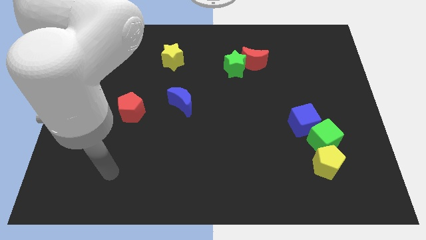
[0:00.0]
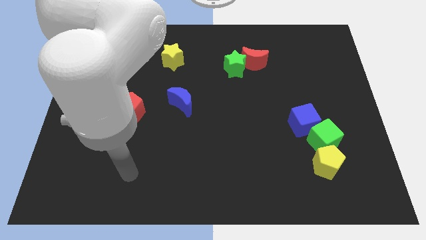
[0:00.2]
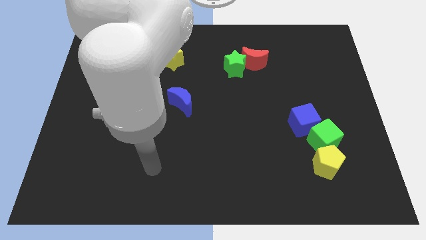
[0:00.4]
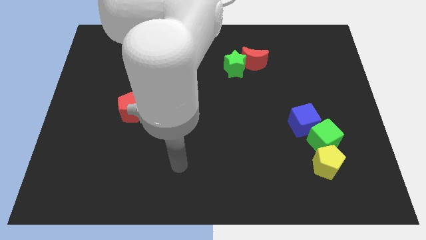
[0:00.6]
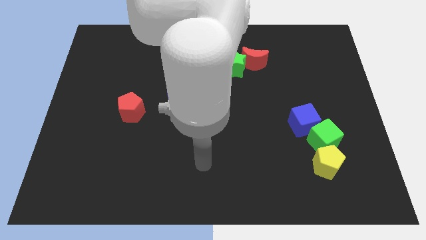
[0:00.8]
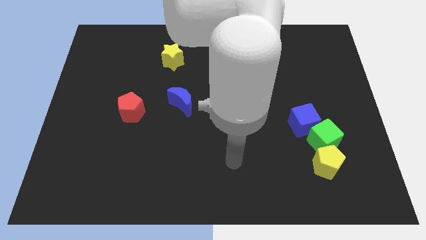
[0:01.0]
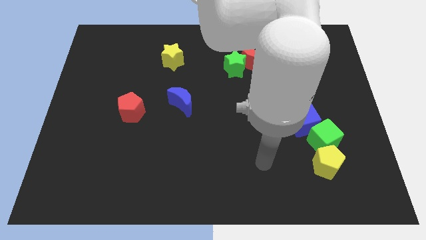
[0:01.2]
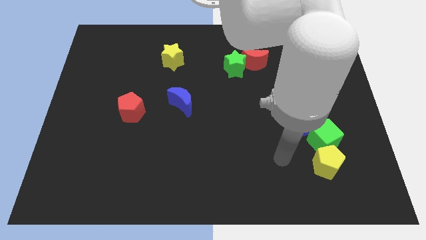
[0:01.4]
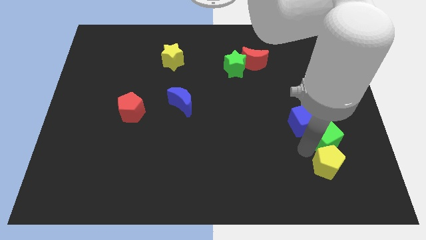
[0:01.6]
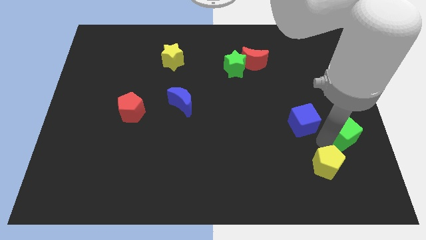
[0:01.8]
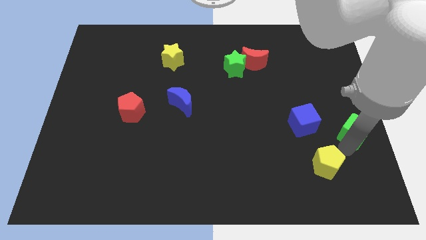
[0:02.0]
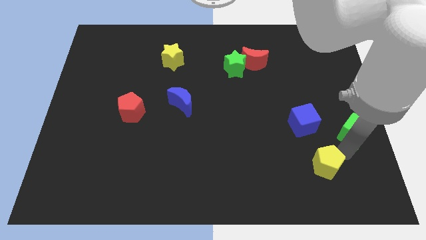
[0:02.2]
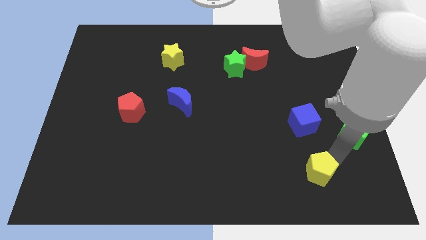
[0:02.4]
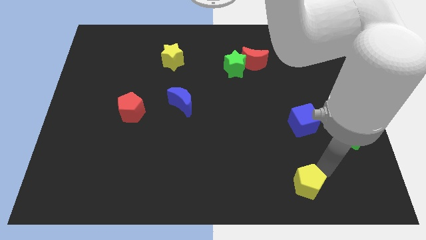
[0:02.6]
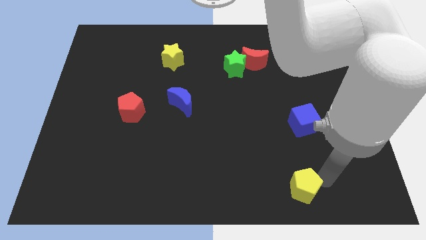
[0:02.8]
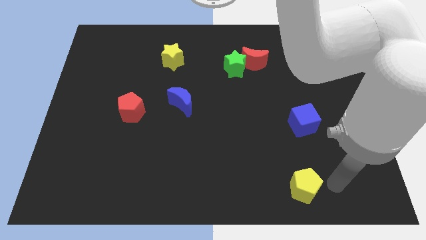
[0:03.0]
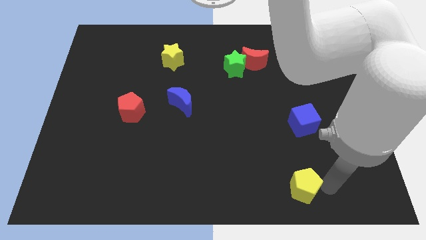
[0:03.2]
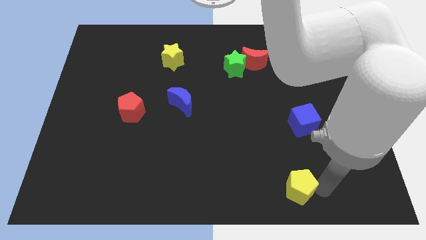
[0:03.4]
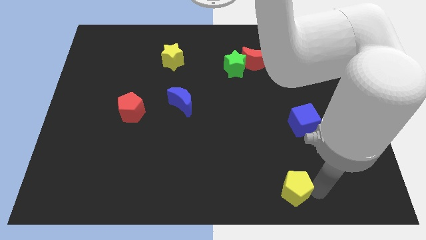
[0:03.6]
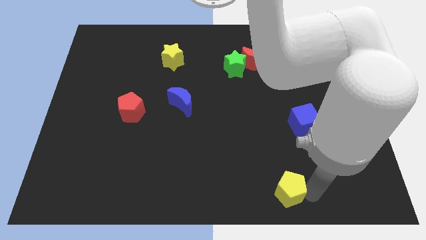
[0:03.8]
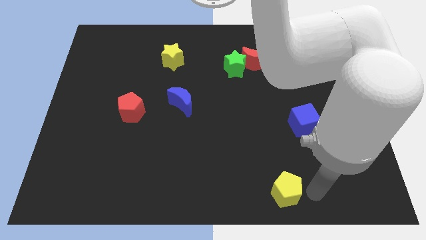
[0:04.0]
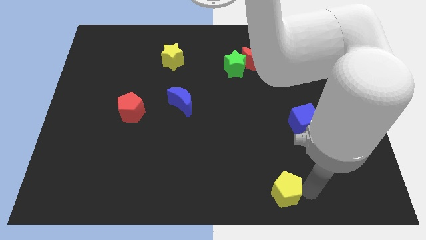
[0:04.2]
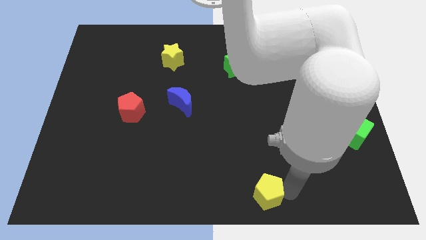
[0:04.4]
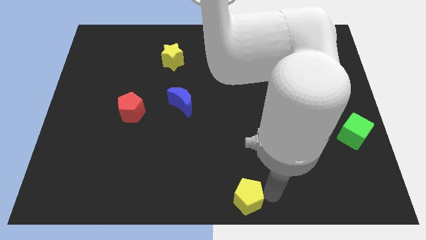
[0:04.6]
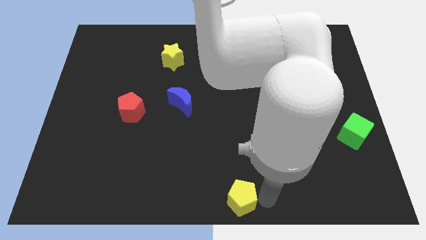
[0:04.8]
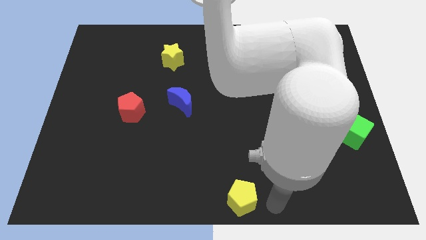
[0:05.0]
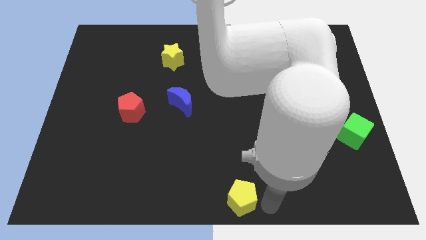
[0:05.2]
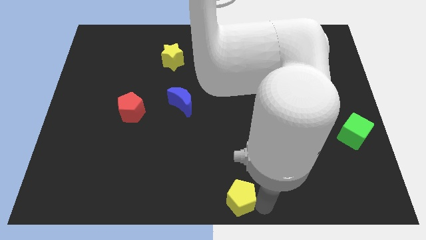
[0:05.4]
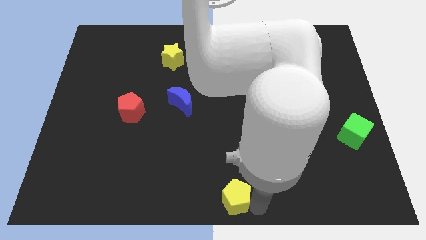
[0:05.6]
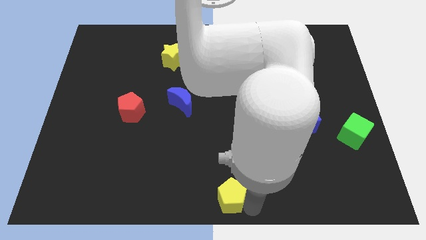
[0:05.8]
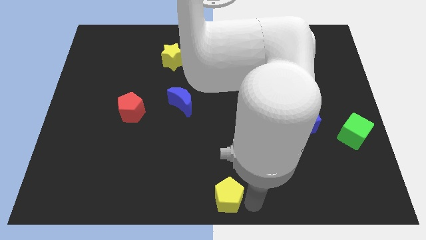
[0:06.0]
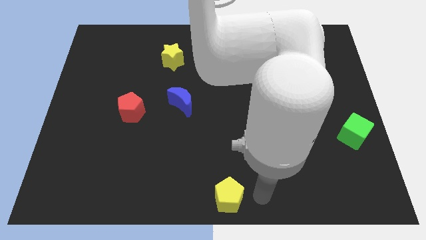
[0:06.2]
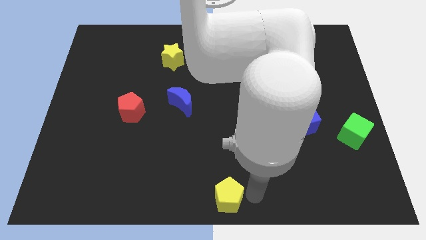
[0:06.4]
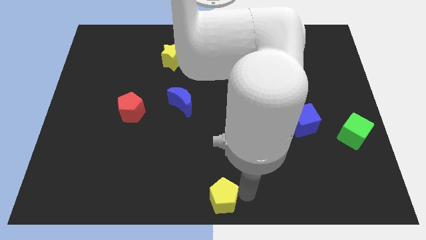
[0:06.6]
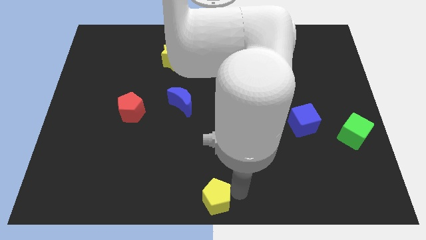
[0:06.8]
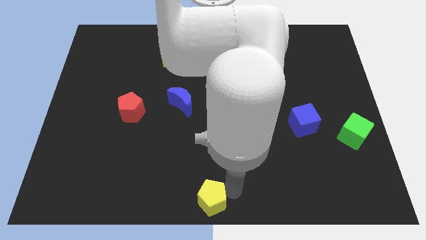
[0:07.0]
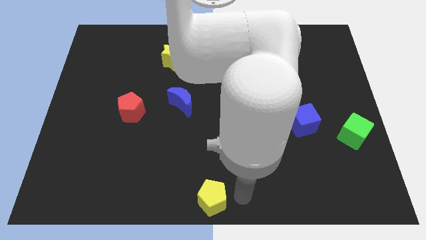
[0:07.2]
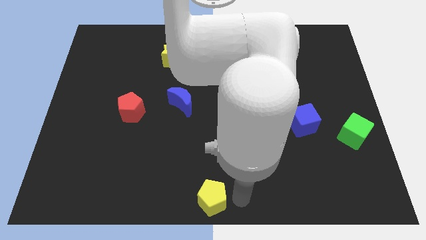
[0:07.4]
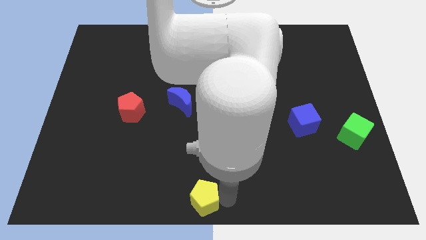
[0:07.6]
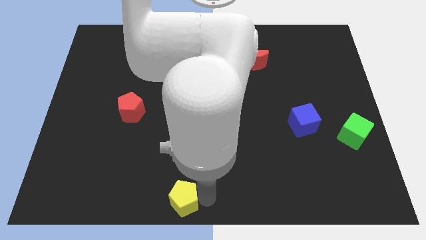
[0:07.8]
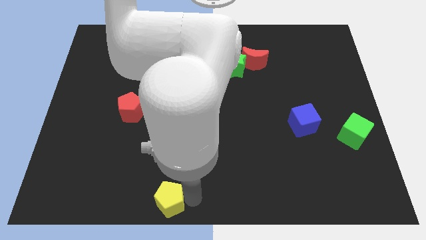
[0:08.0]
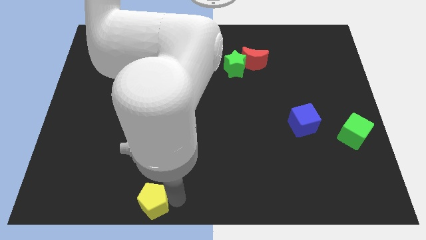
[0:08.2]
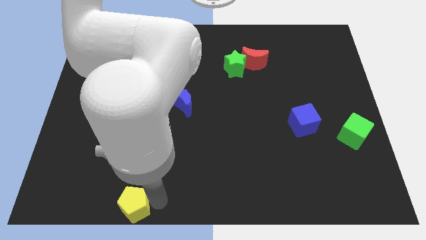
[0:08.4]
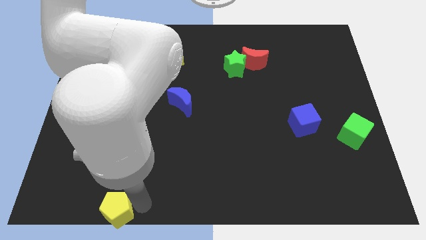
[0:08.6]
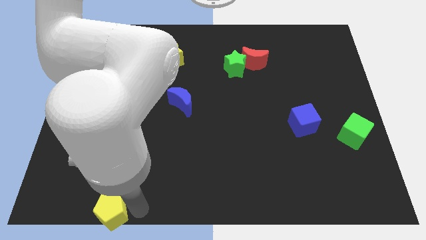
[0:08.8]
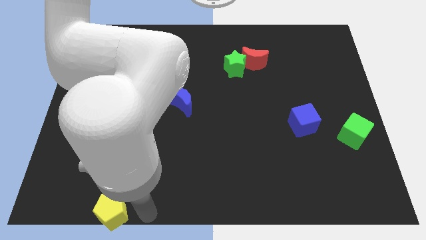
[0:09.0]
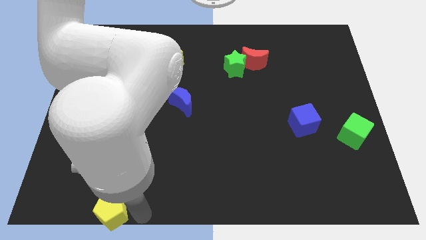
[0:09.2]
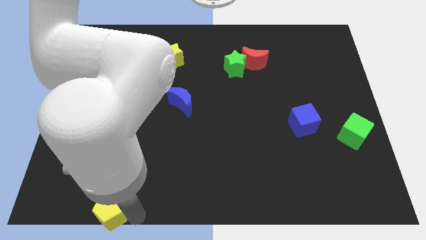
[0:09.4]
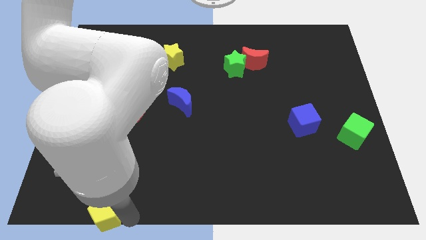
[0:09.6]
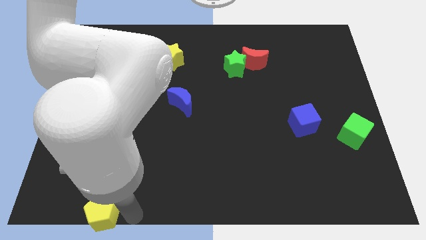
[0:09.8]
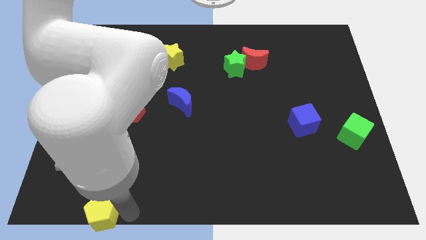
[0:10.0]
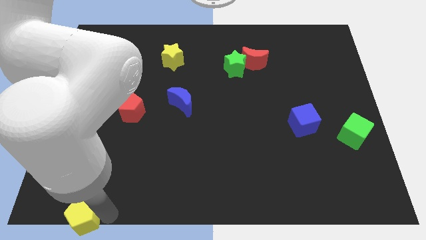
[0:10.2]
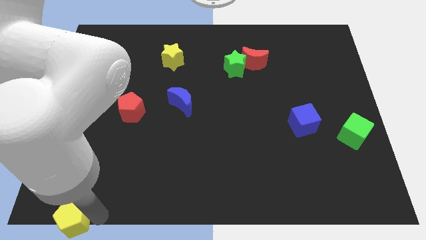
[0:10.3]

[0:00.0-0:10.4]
move the yellow pentagon to the bottom left

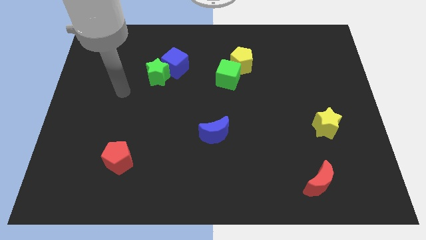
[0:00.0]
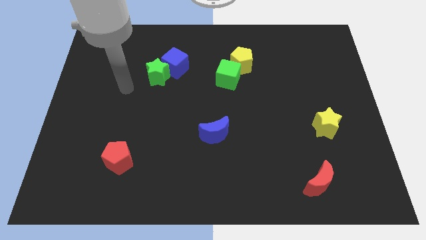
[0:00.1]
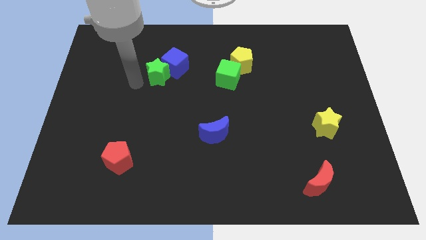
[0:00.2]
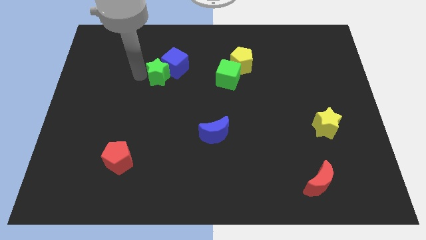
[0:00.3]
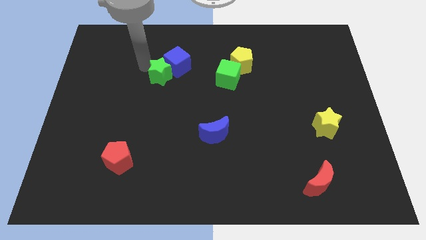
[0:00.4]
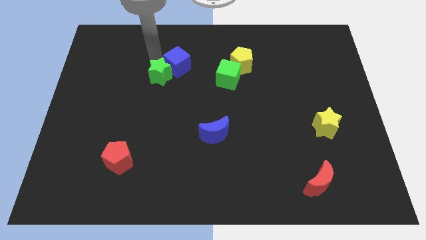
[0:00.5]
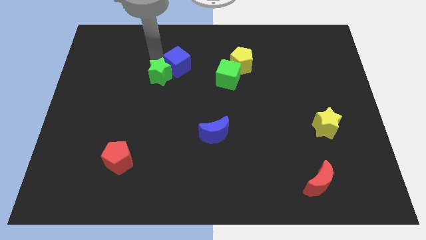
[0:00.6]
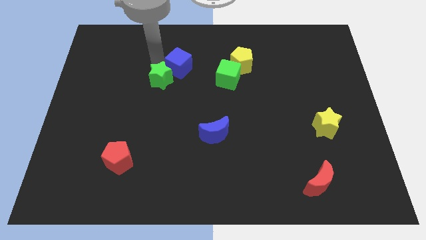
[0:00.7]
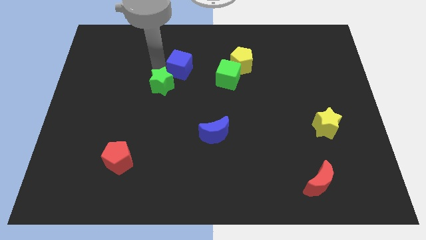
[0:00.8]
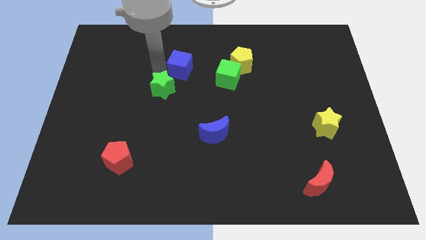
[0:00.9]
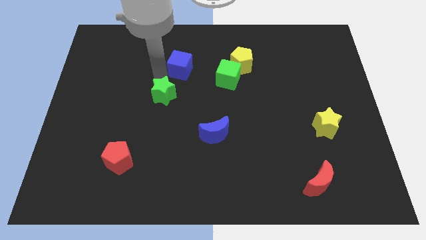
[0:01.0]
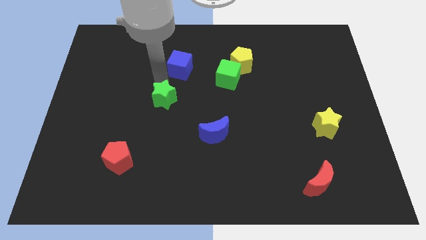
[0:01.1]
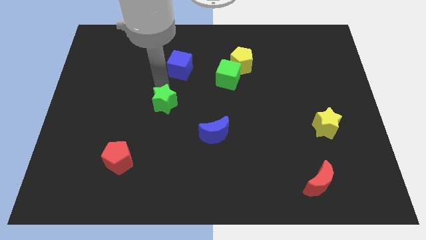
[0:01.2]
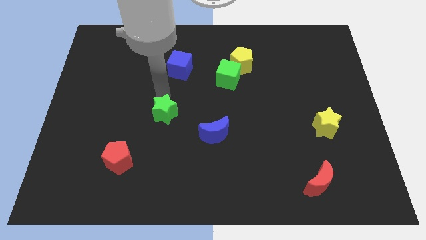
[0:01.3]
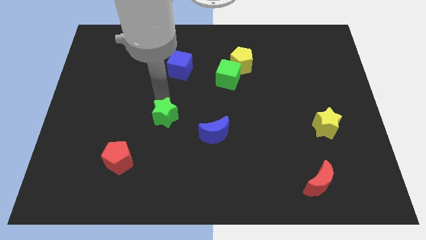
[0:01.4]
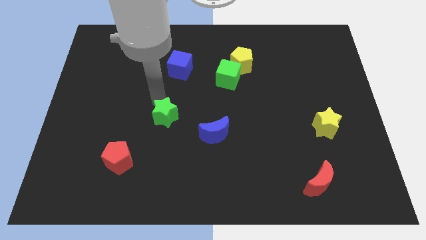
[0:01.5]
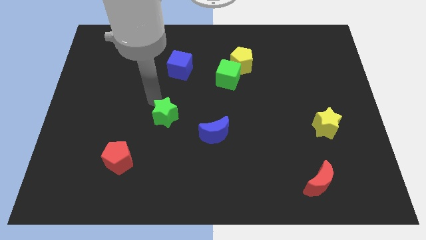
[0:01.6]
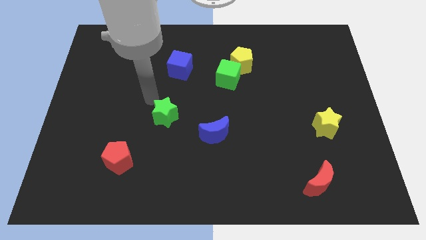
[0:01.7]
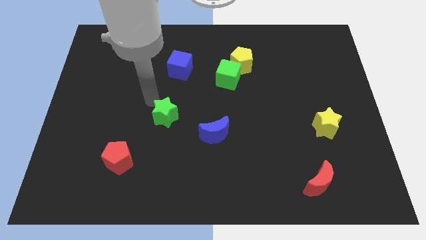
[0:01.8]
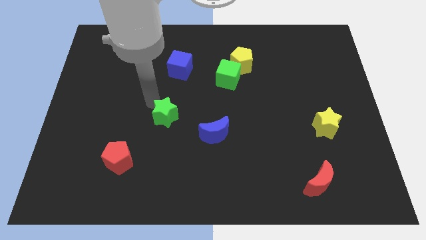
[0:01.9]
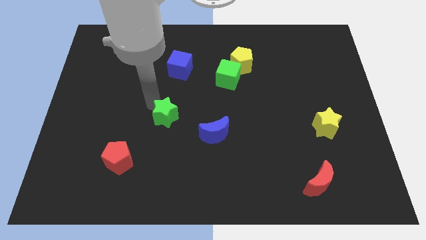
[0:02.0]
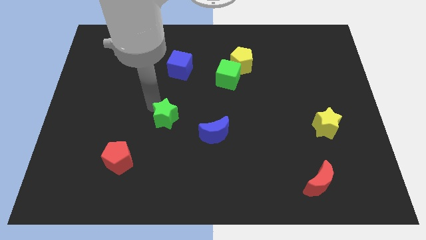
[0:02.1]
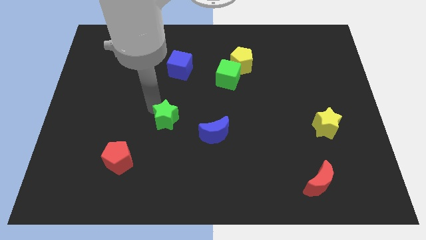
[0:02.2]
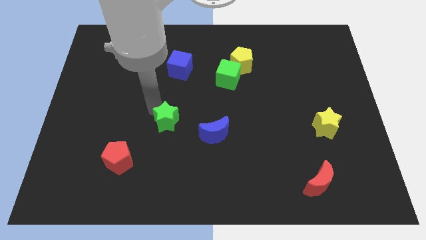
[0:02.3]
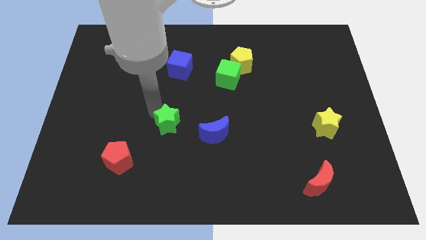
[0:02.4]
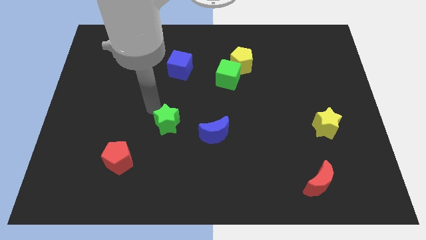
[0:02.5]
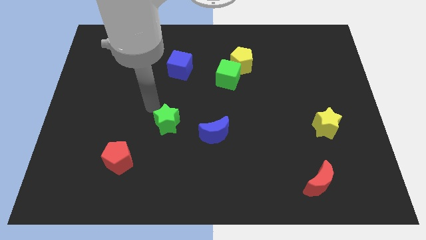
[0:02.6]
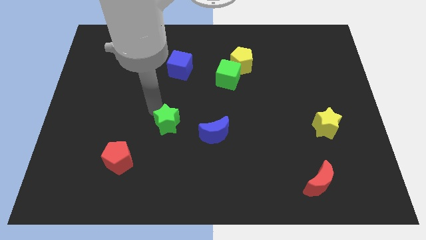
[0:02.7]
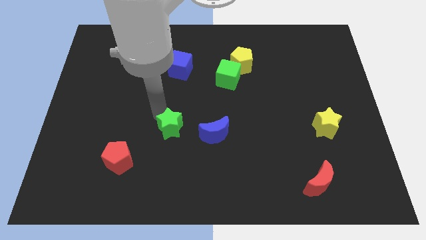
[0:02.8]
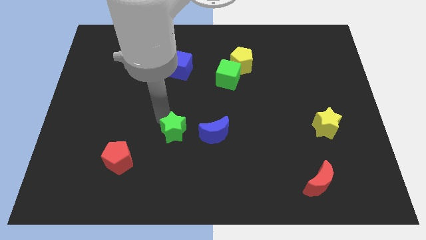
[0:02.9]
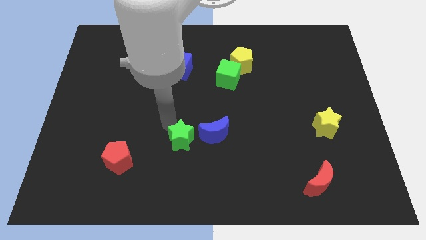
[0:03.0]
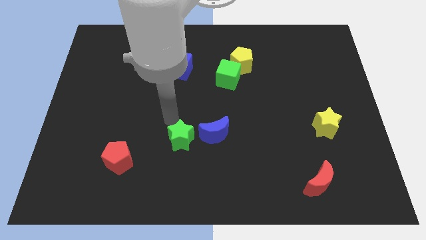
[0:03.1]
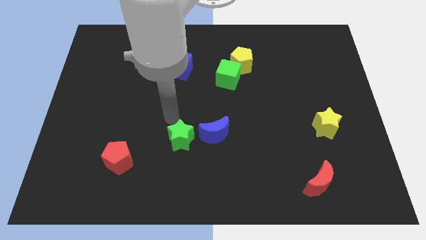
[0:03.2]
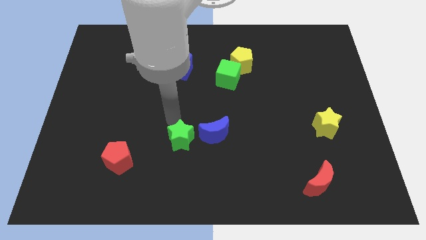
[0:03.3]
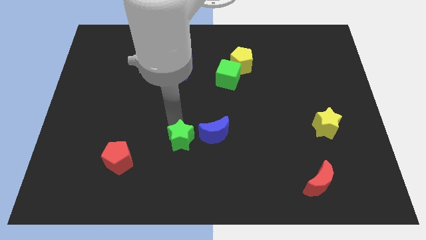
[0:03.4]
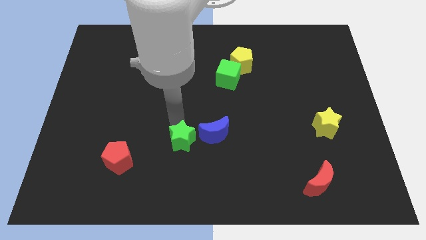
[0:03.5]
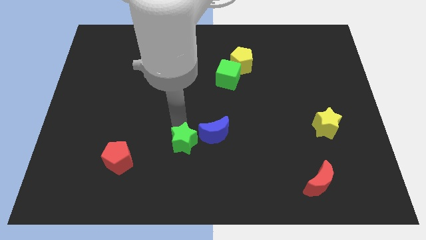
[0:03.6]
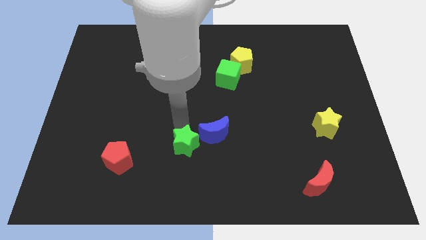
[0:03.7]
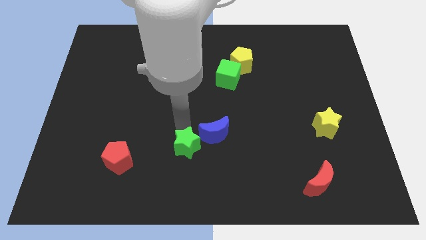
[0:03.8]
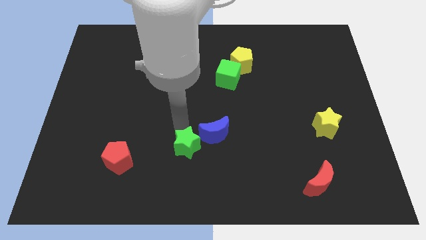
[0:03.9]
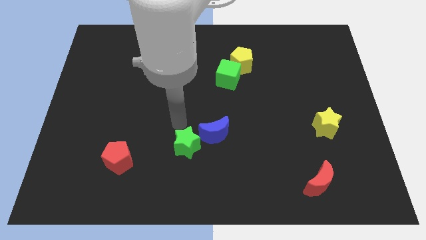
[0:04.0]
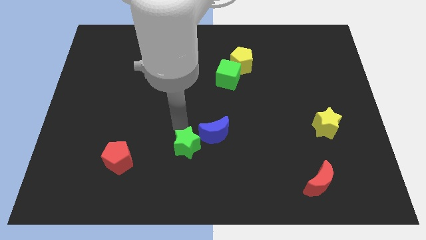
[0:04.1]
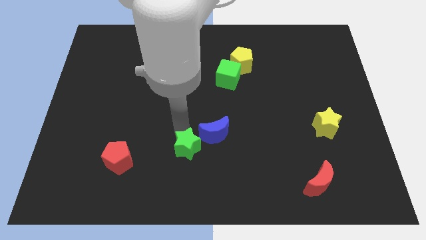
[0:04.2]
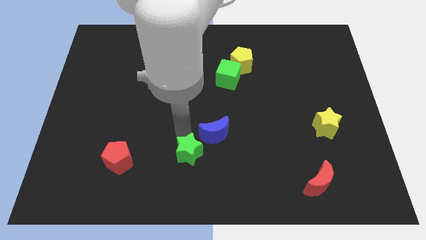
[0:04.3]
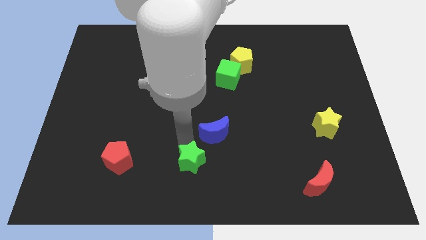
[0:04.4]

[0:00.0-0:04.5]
move the green star to the bottom
